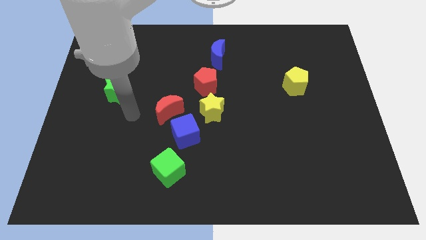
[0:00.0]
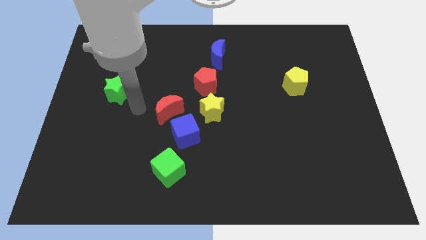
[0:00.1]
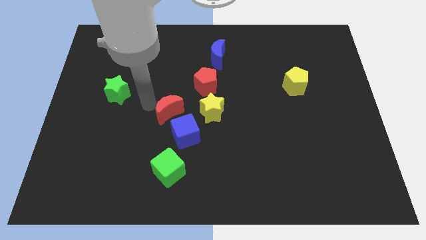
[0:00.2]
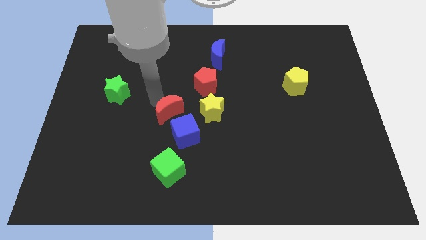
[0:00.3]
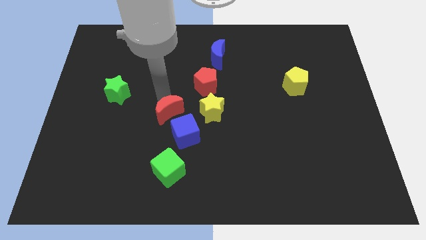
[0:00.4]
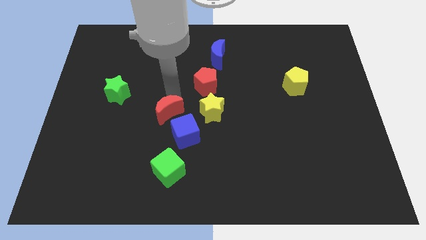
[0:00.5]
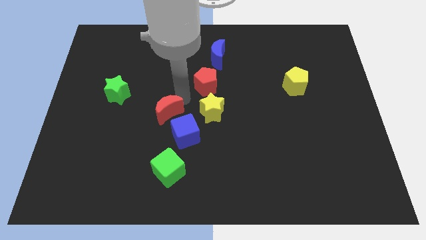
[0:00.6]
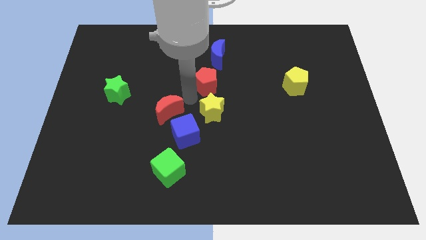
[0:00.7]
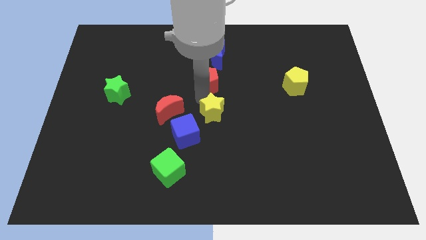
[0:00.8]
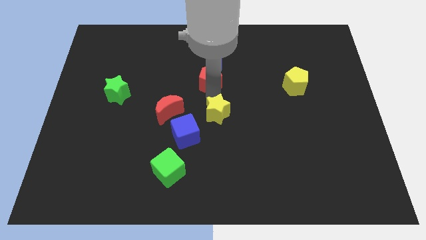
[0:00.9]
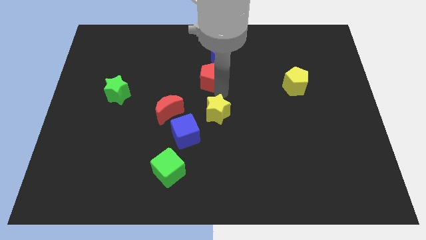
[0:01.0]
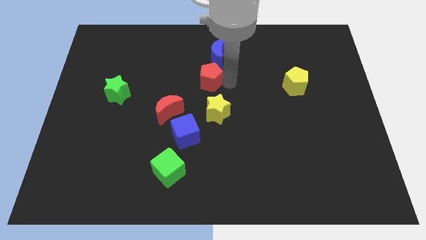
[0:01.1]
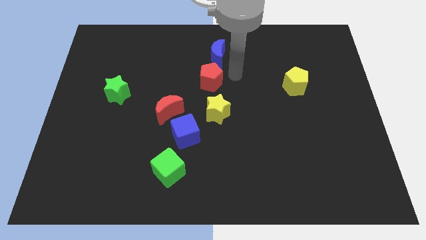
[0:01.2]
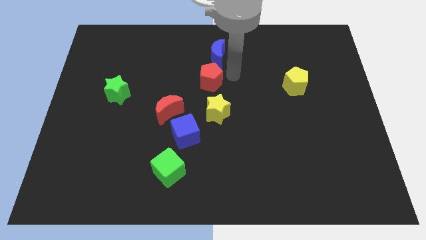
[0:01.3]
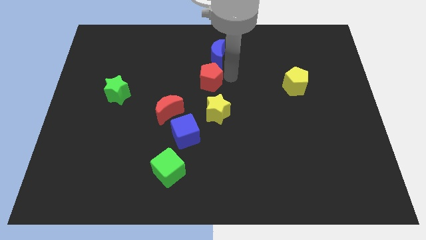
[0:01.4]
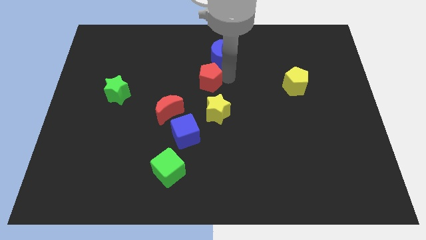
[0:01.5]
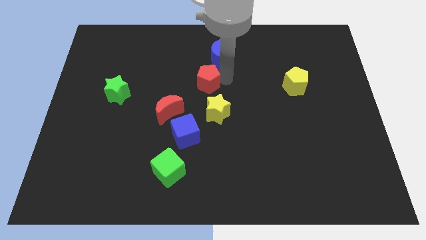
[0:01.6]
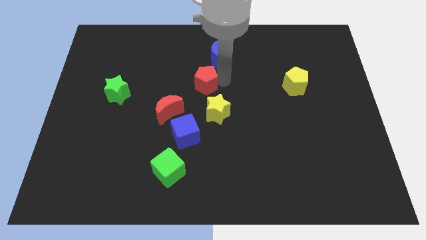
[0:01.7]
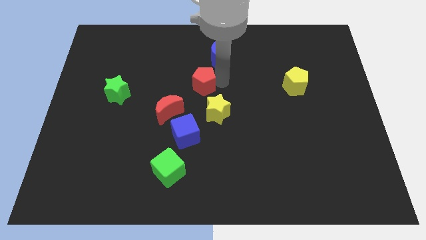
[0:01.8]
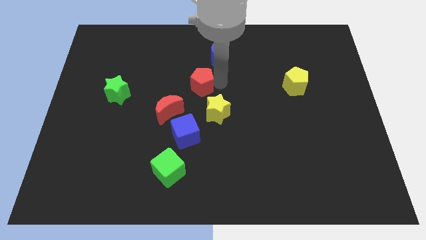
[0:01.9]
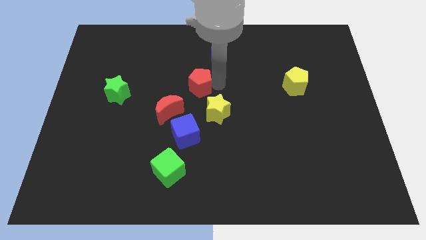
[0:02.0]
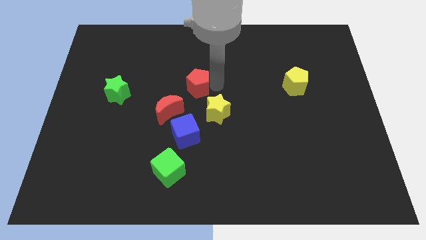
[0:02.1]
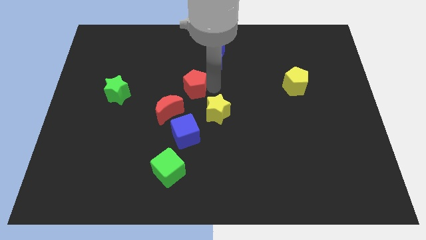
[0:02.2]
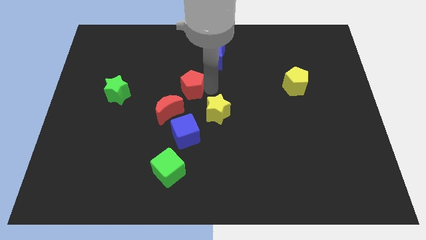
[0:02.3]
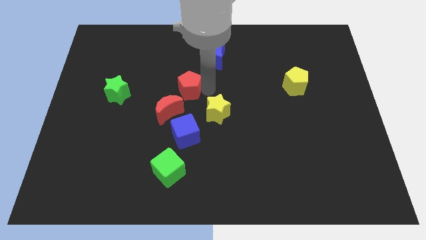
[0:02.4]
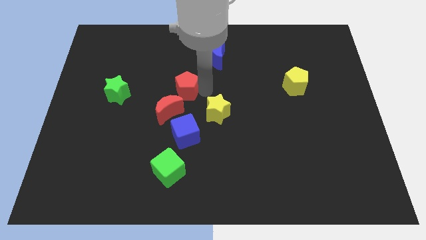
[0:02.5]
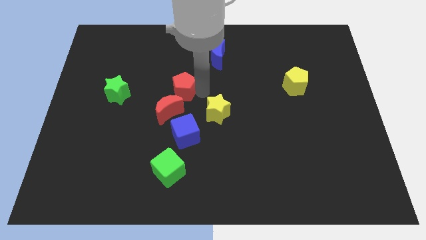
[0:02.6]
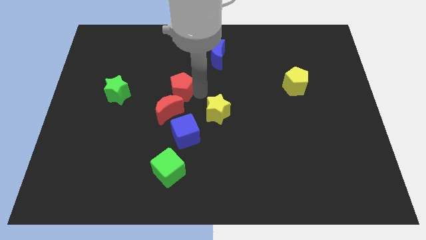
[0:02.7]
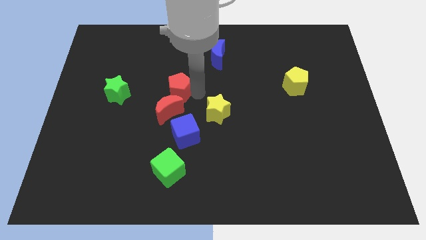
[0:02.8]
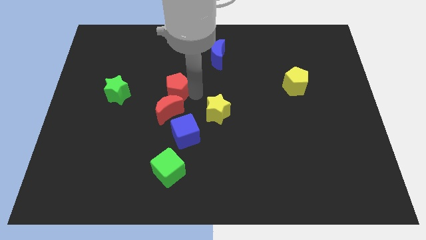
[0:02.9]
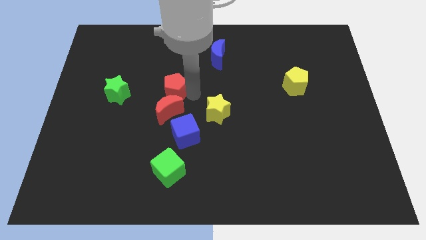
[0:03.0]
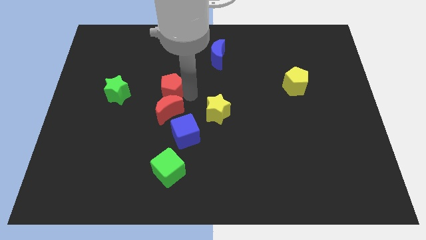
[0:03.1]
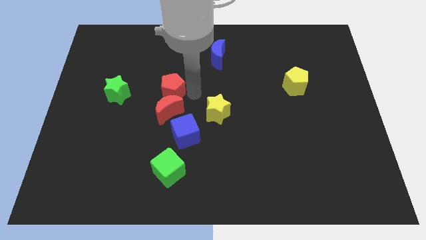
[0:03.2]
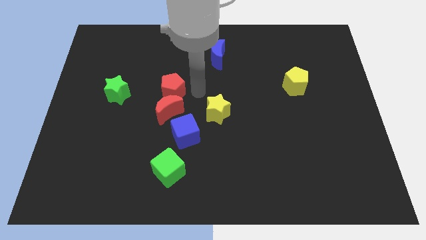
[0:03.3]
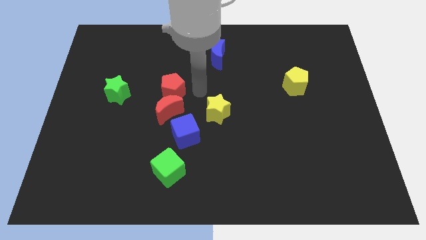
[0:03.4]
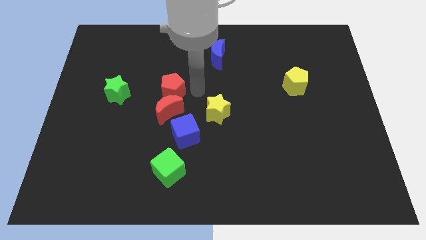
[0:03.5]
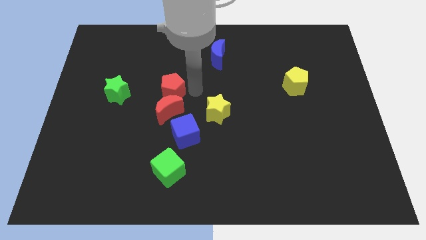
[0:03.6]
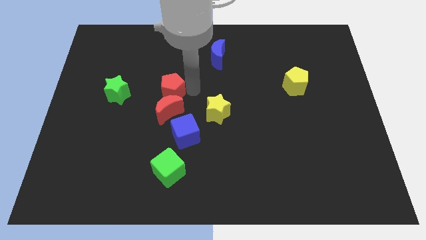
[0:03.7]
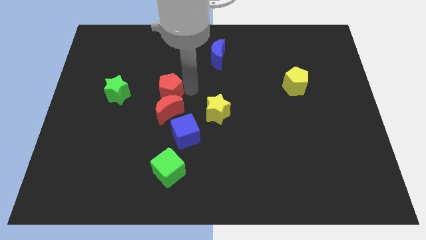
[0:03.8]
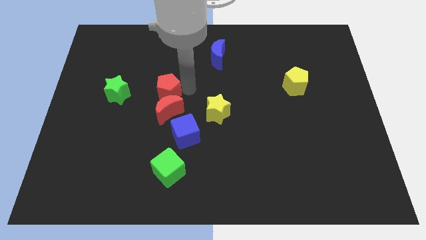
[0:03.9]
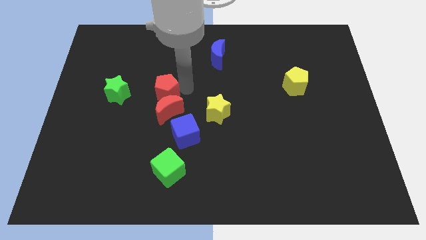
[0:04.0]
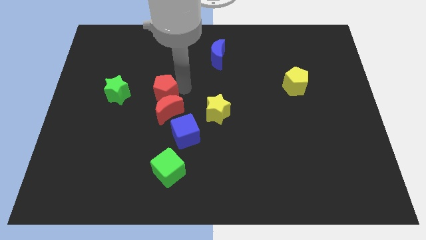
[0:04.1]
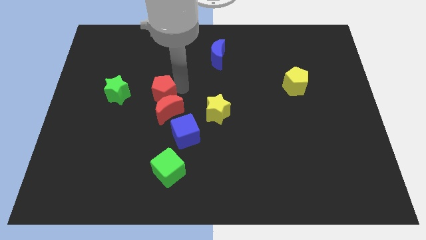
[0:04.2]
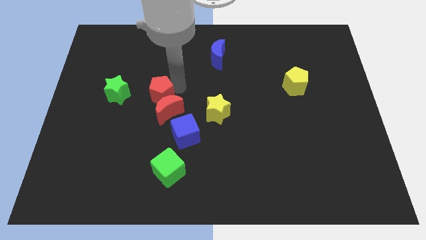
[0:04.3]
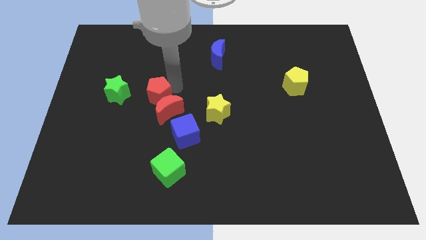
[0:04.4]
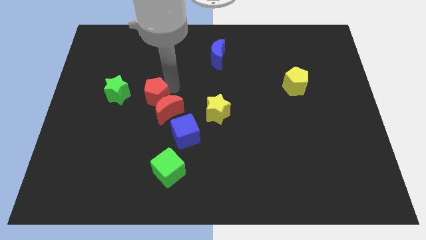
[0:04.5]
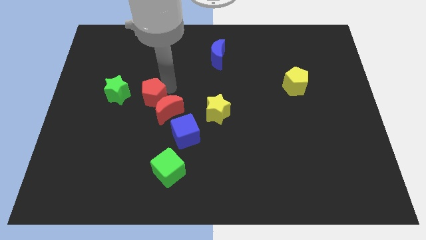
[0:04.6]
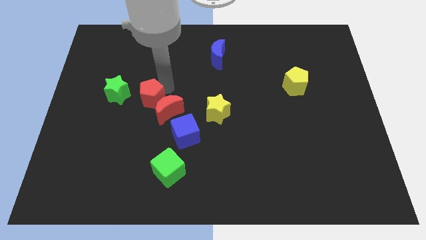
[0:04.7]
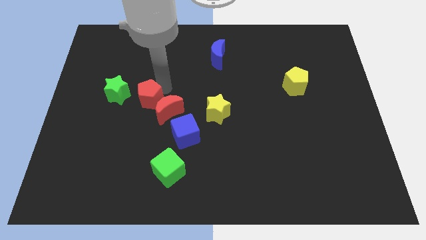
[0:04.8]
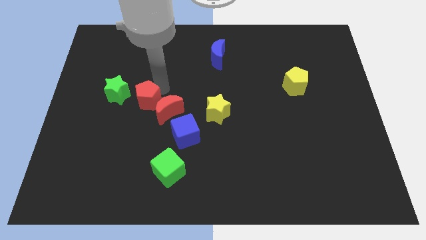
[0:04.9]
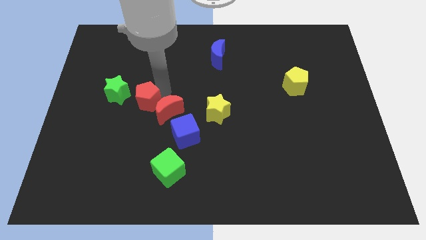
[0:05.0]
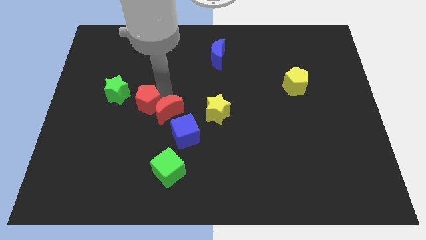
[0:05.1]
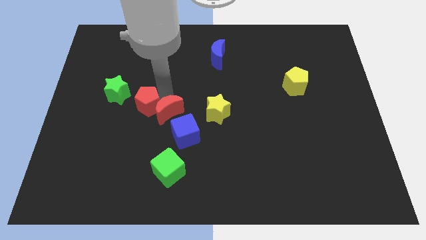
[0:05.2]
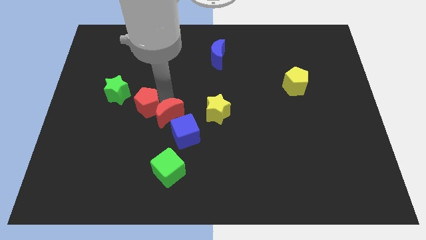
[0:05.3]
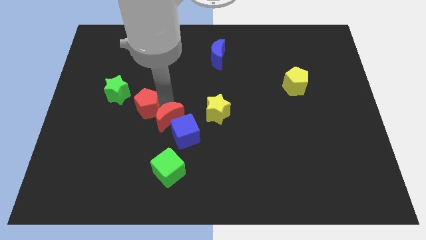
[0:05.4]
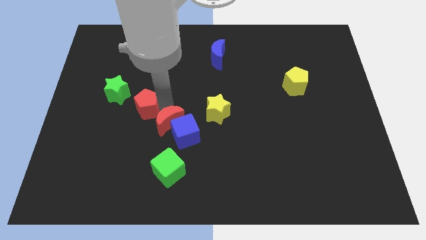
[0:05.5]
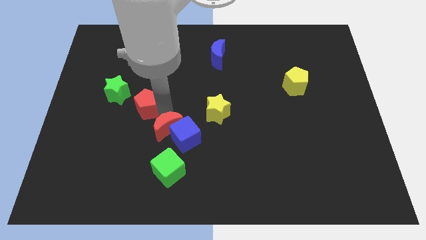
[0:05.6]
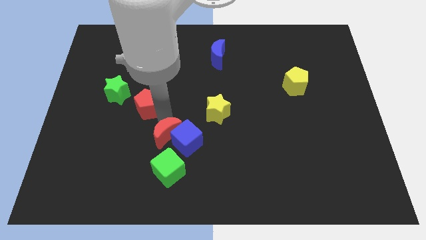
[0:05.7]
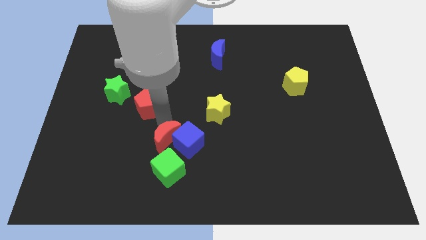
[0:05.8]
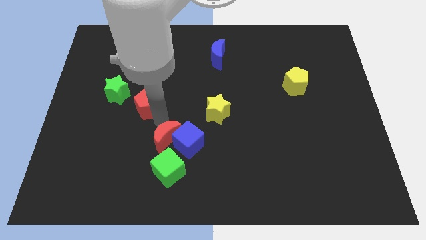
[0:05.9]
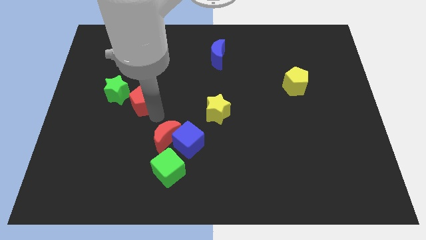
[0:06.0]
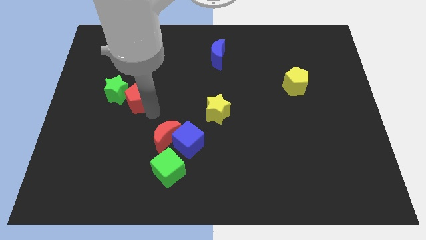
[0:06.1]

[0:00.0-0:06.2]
move the red pentagon next to the green star

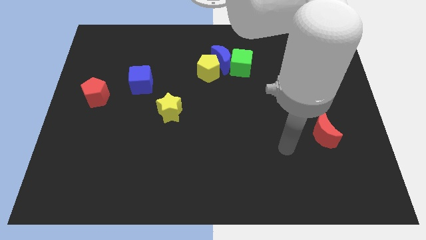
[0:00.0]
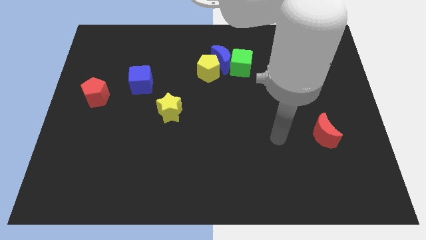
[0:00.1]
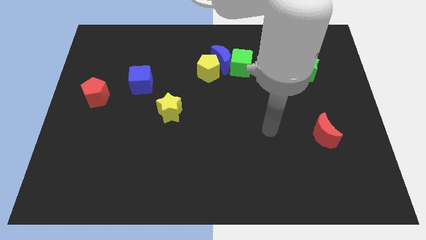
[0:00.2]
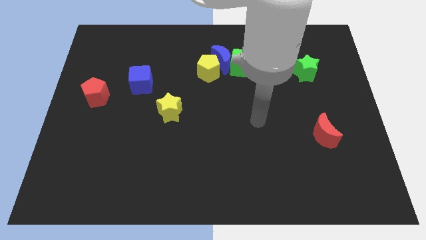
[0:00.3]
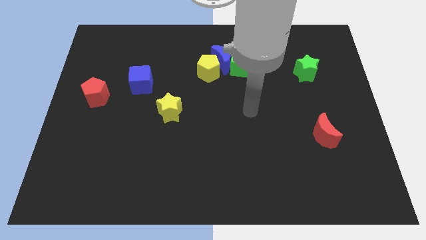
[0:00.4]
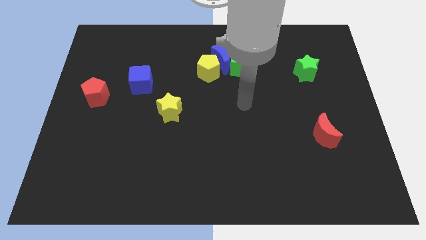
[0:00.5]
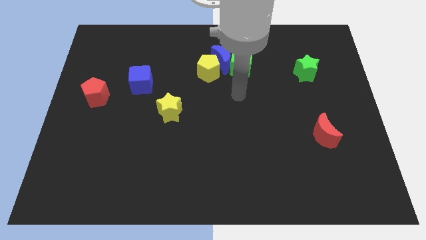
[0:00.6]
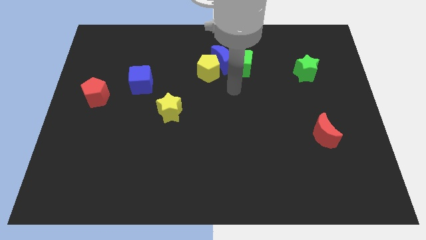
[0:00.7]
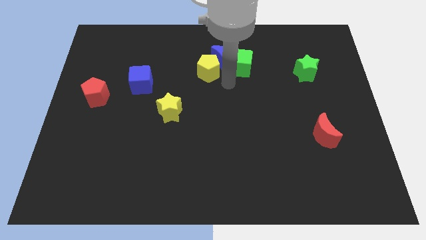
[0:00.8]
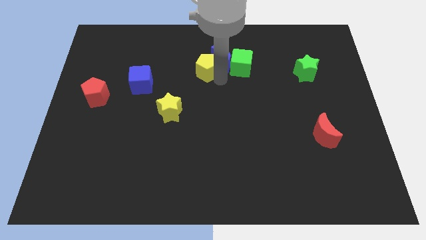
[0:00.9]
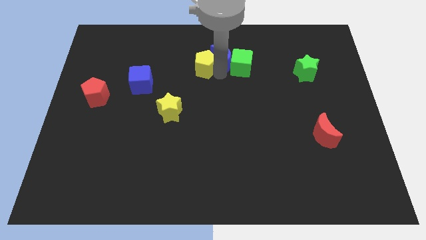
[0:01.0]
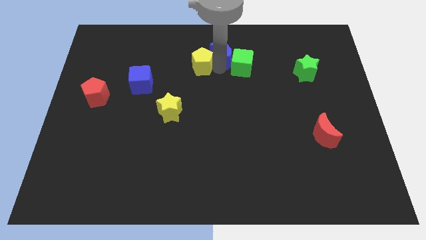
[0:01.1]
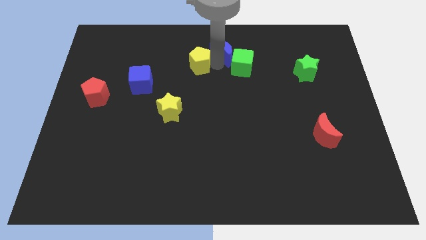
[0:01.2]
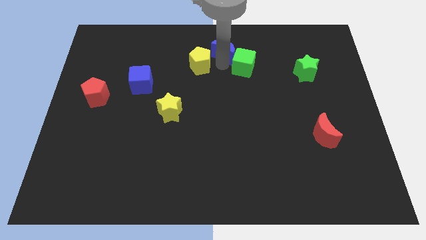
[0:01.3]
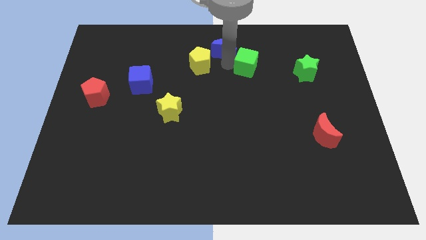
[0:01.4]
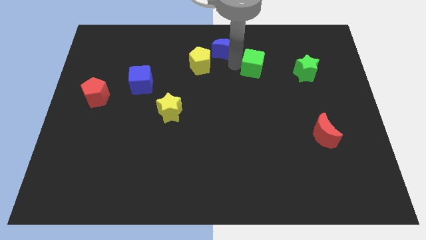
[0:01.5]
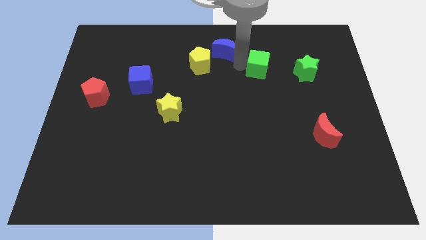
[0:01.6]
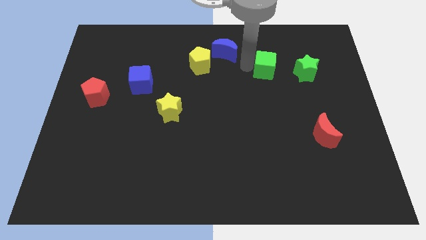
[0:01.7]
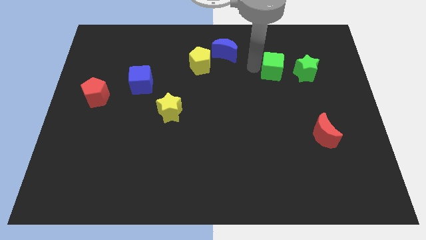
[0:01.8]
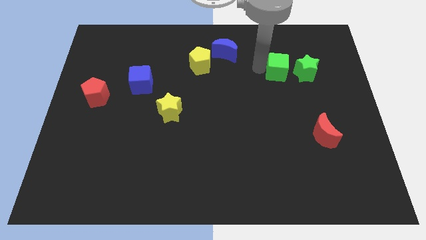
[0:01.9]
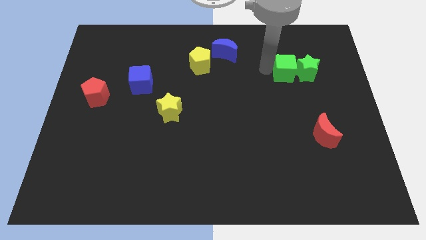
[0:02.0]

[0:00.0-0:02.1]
slide the green cube next to the green star
